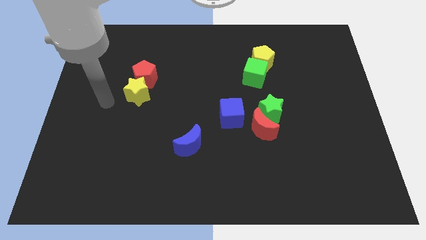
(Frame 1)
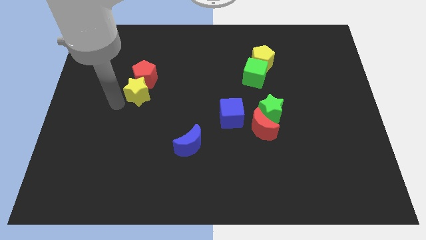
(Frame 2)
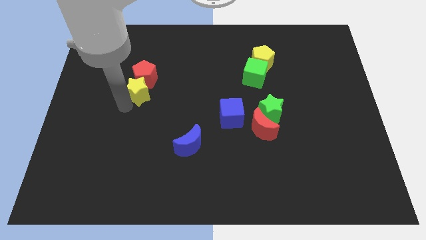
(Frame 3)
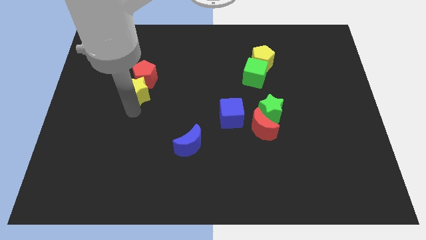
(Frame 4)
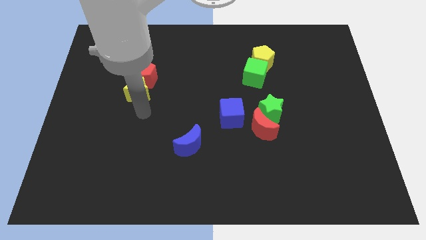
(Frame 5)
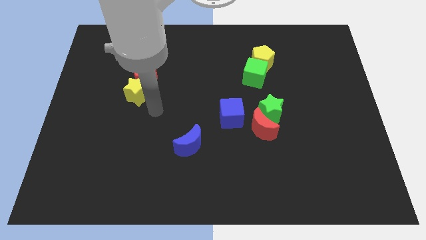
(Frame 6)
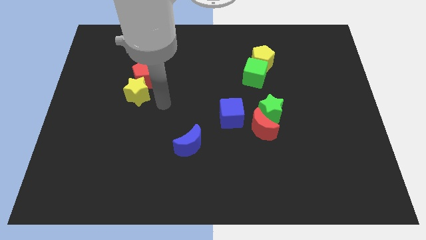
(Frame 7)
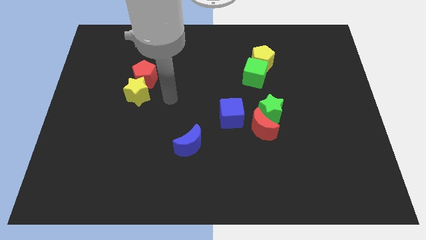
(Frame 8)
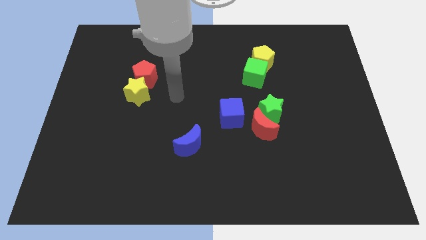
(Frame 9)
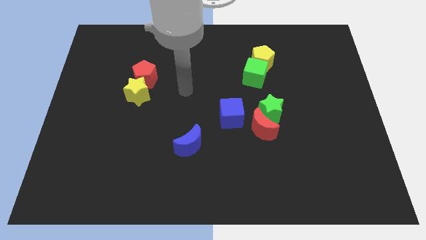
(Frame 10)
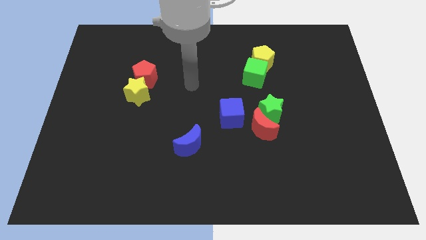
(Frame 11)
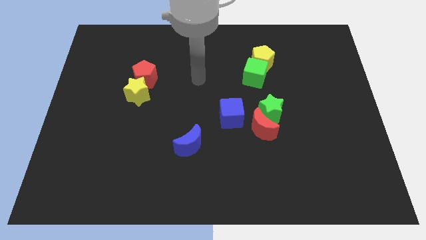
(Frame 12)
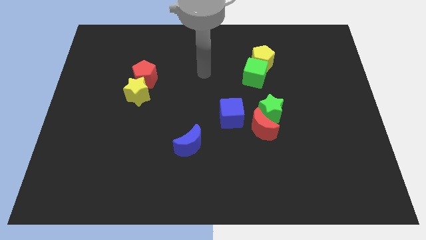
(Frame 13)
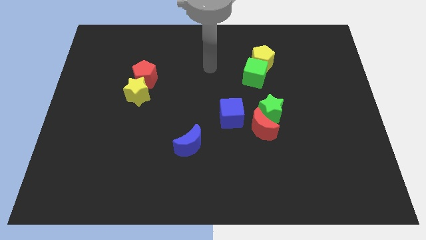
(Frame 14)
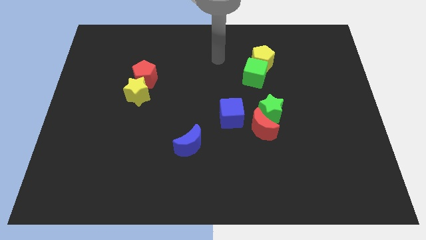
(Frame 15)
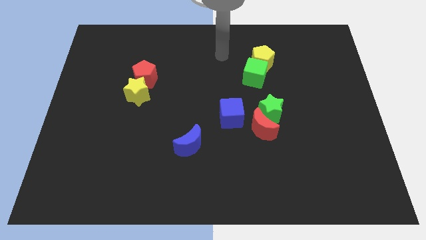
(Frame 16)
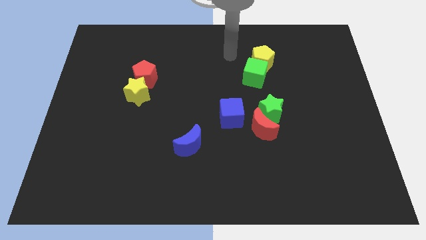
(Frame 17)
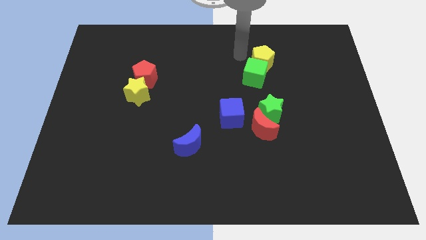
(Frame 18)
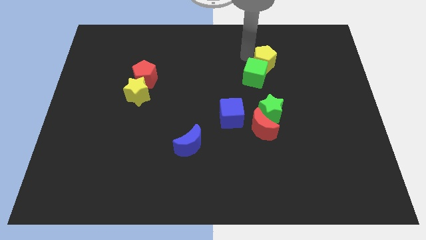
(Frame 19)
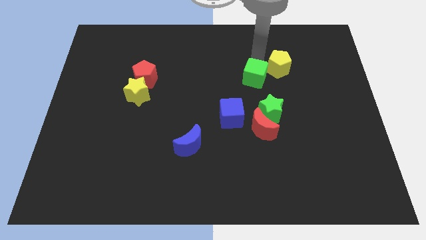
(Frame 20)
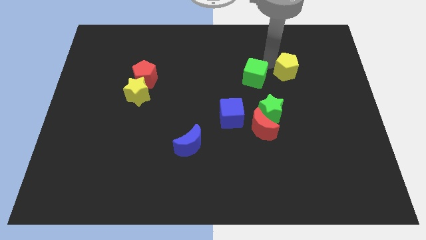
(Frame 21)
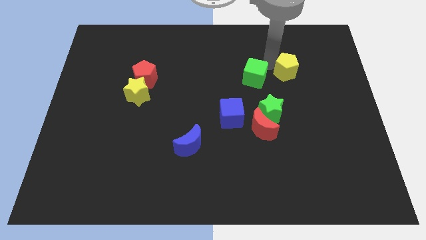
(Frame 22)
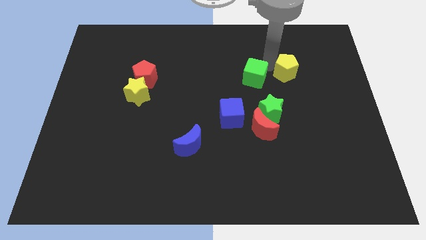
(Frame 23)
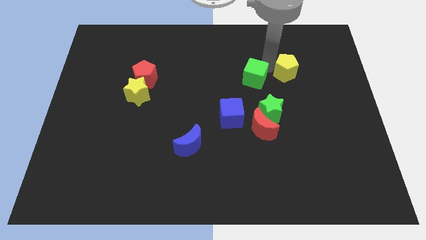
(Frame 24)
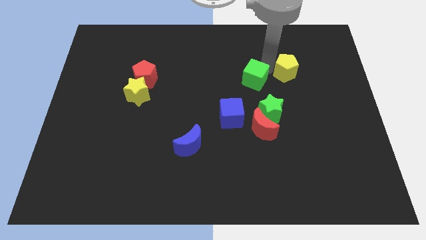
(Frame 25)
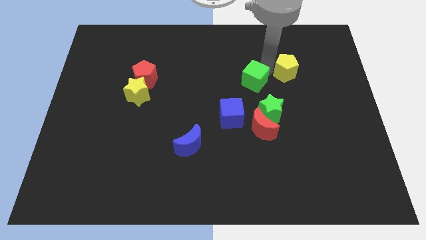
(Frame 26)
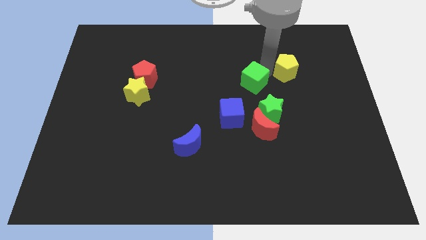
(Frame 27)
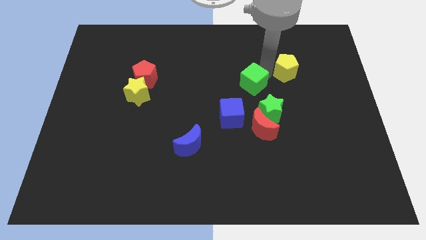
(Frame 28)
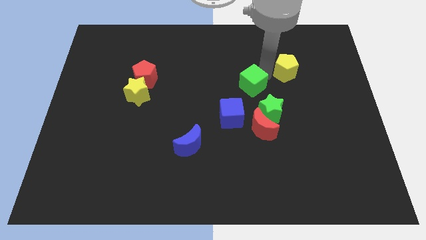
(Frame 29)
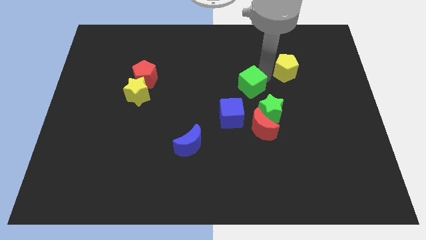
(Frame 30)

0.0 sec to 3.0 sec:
move the green cube away from the yellow pentagon

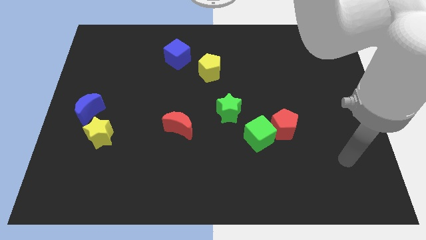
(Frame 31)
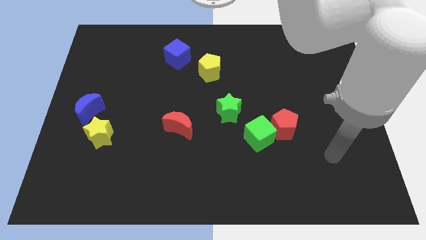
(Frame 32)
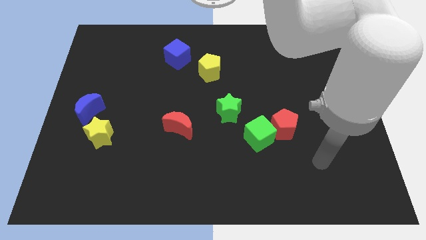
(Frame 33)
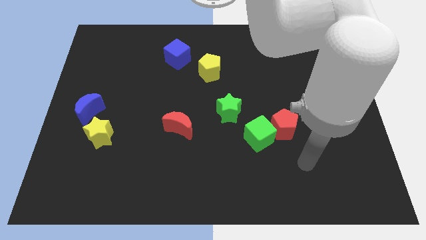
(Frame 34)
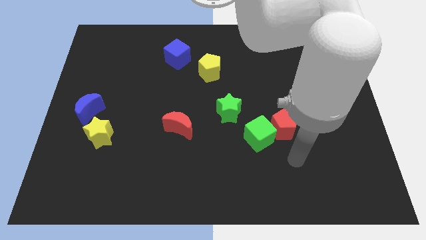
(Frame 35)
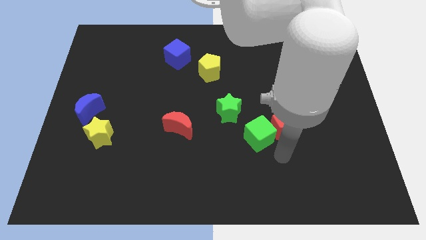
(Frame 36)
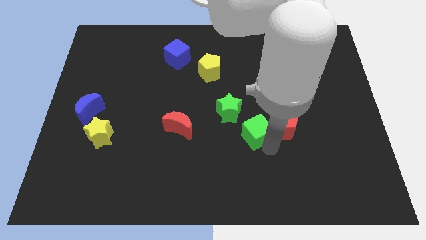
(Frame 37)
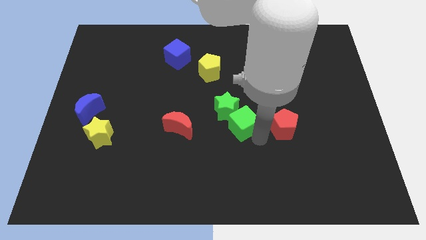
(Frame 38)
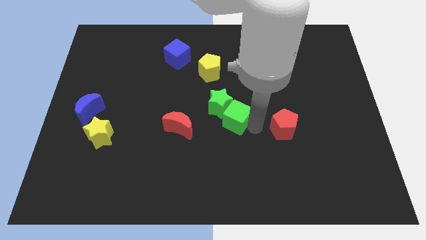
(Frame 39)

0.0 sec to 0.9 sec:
pull the red pentagon apart from the green cube

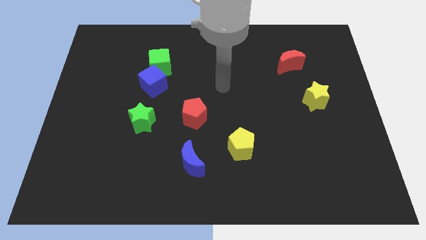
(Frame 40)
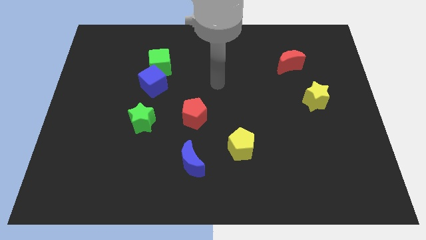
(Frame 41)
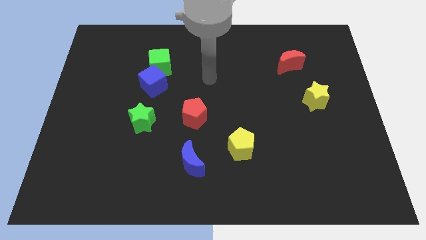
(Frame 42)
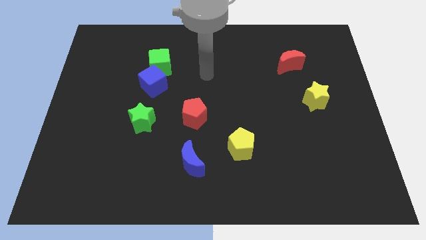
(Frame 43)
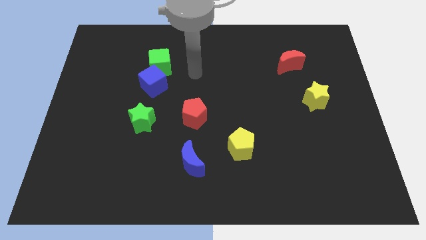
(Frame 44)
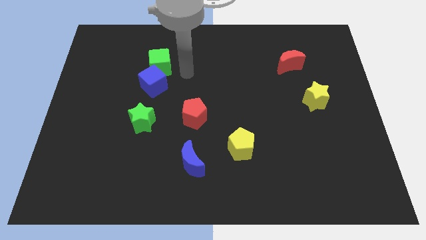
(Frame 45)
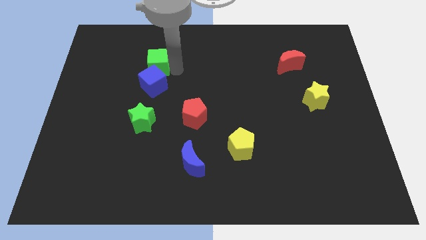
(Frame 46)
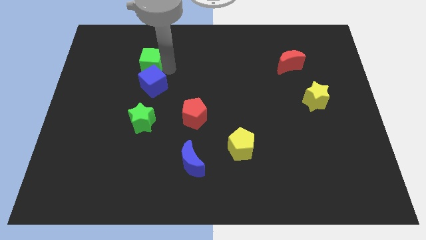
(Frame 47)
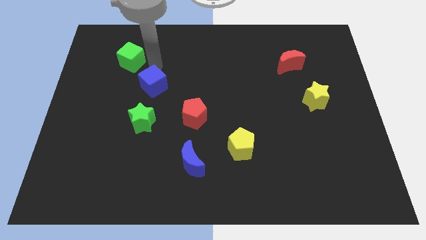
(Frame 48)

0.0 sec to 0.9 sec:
separate the blue cube from the green cube

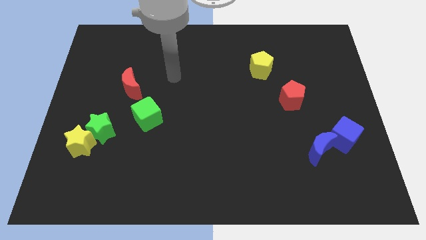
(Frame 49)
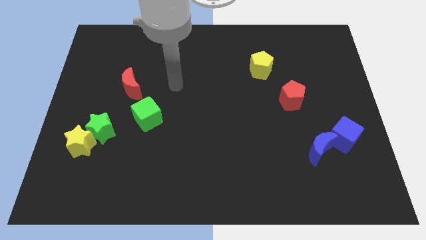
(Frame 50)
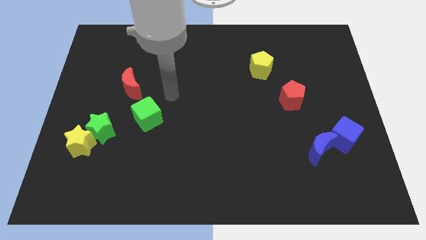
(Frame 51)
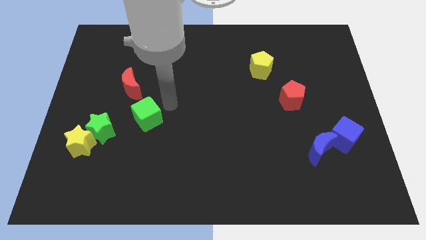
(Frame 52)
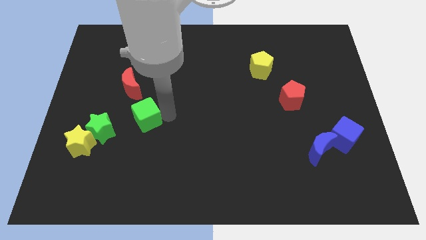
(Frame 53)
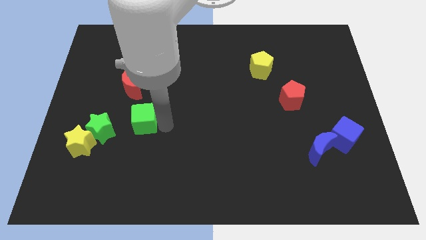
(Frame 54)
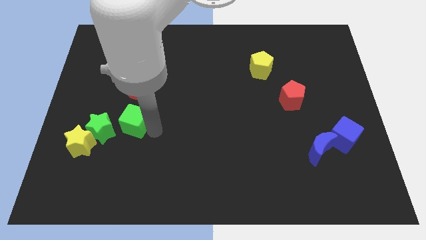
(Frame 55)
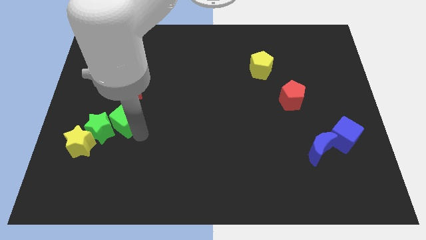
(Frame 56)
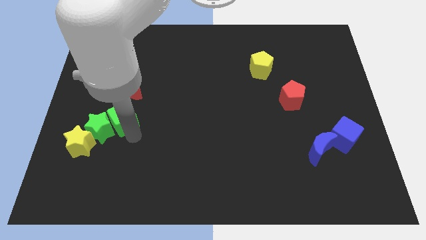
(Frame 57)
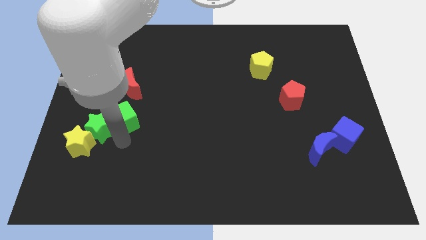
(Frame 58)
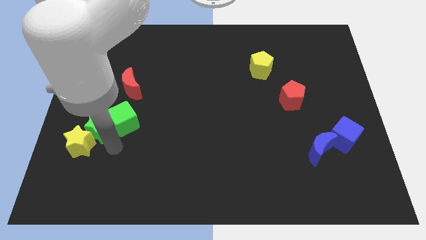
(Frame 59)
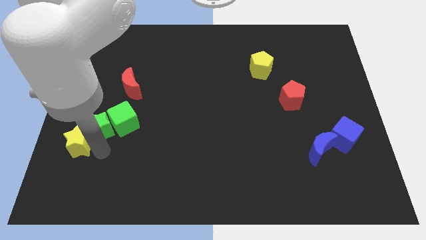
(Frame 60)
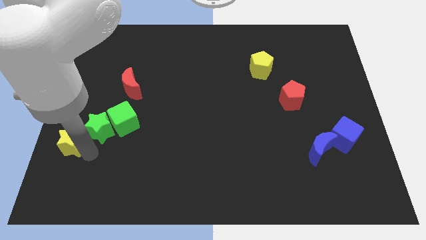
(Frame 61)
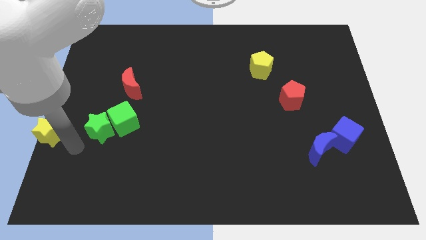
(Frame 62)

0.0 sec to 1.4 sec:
move the green star away from the yellow star

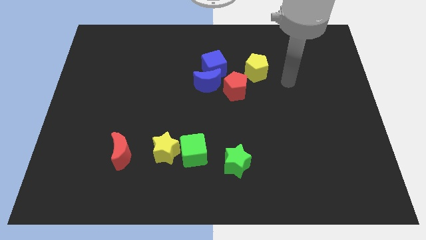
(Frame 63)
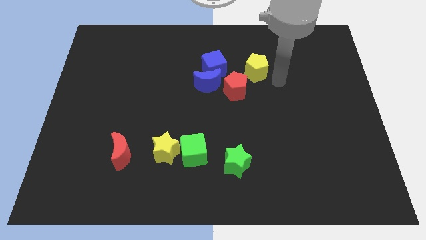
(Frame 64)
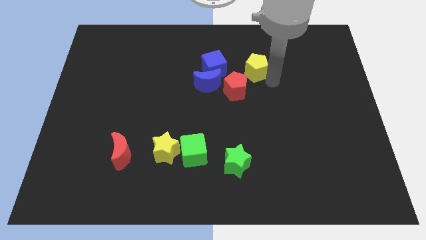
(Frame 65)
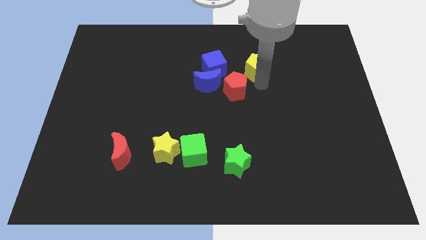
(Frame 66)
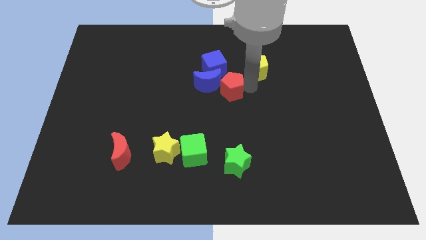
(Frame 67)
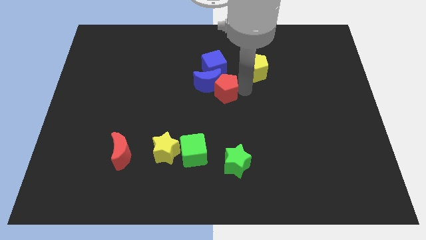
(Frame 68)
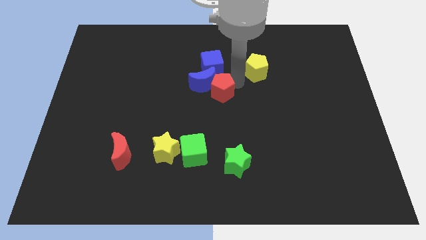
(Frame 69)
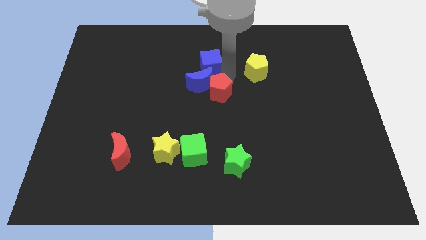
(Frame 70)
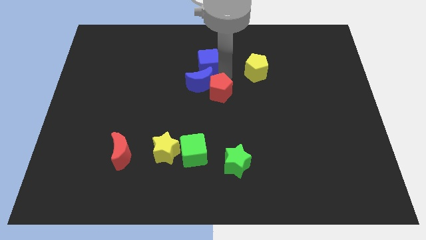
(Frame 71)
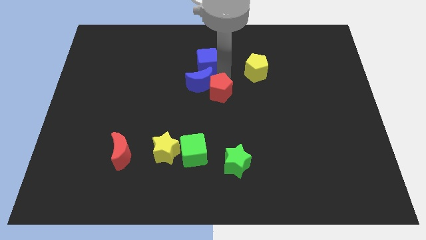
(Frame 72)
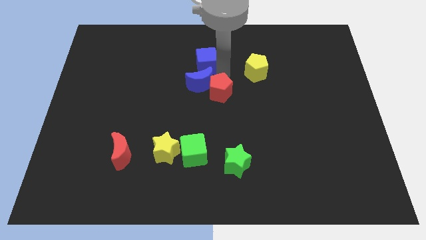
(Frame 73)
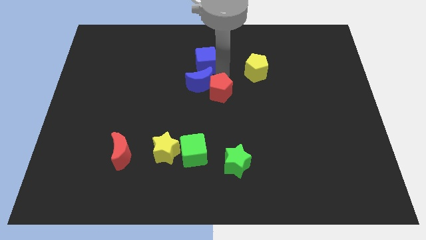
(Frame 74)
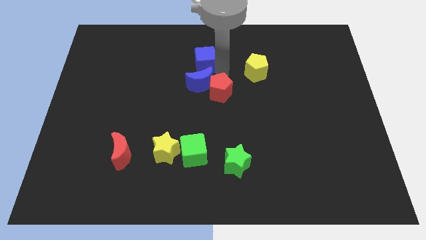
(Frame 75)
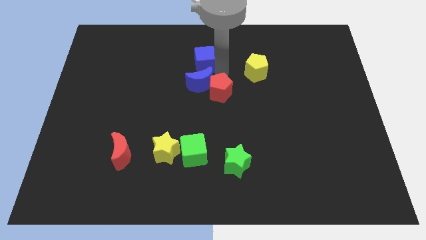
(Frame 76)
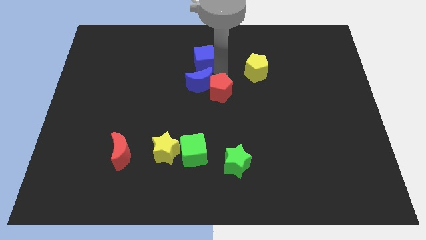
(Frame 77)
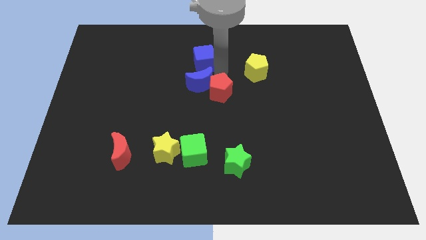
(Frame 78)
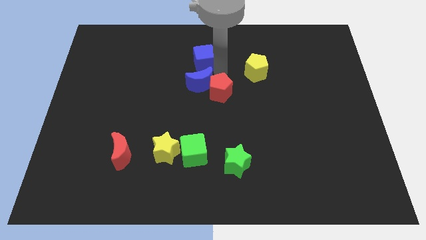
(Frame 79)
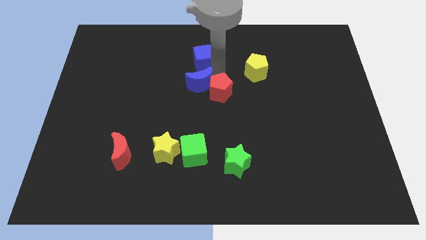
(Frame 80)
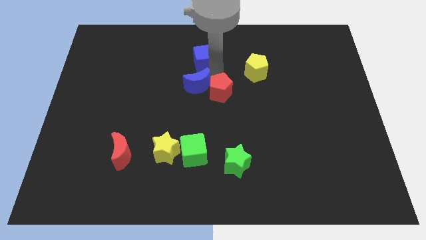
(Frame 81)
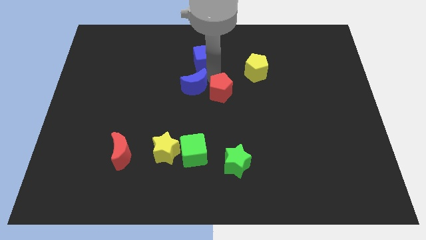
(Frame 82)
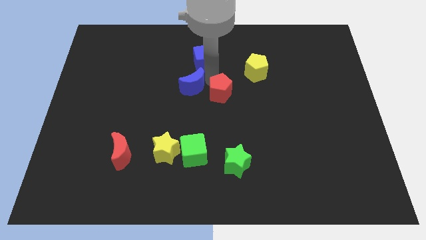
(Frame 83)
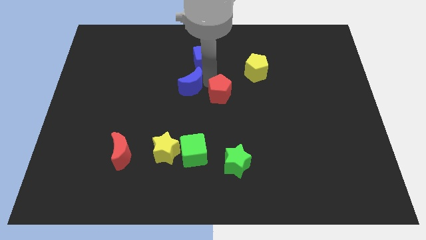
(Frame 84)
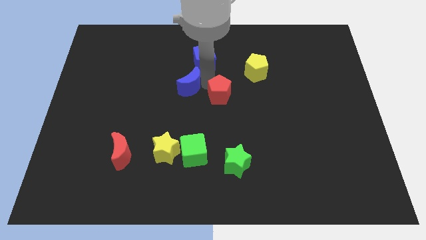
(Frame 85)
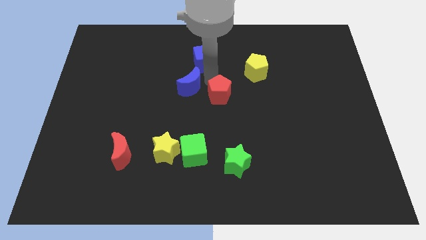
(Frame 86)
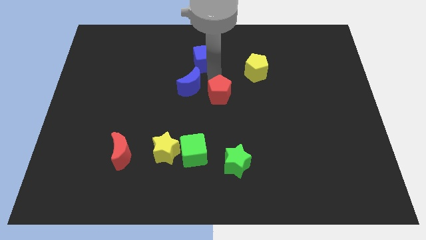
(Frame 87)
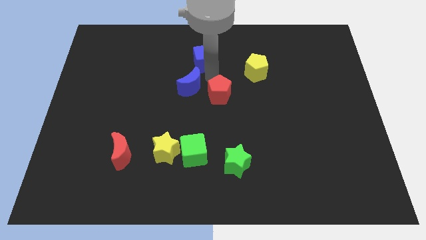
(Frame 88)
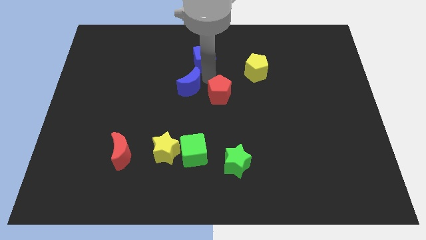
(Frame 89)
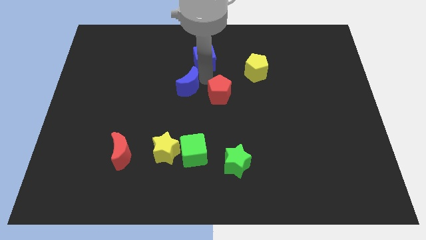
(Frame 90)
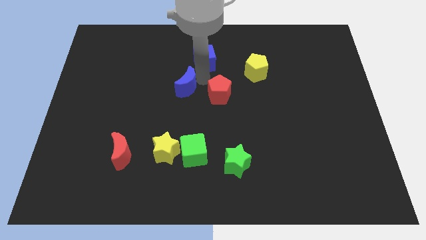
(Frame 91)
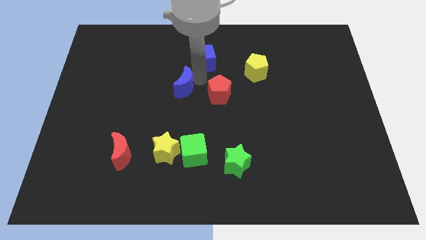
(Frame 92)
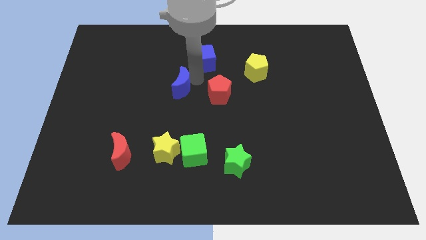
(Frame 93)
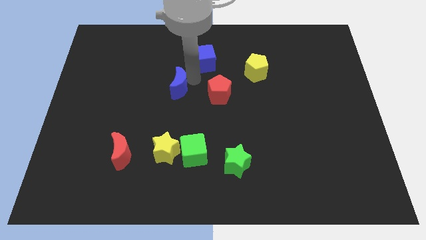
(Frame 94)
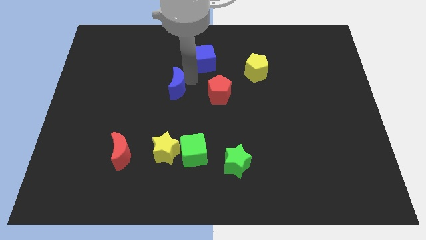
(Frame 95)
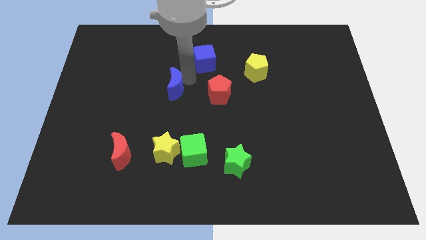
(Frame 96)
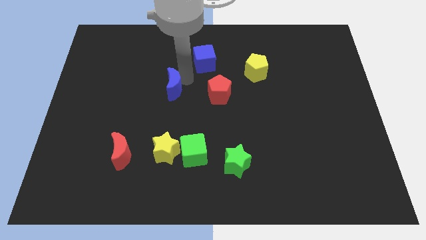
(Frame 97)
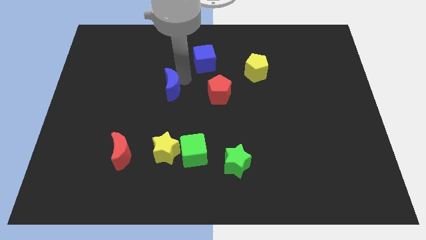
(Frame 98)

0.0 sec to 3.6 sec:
separate the blue moon from the blue cube and red pentagon
